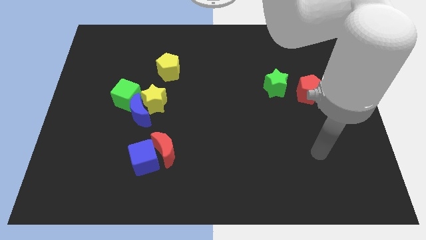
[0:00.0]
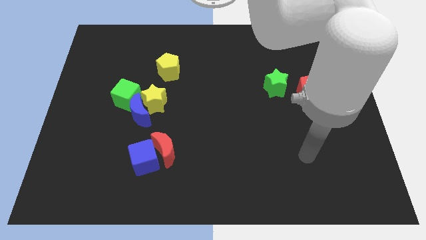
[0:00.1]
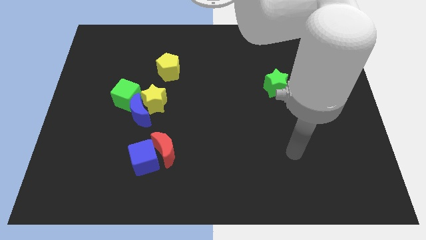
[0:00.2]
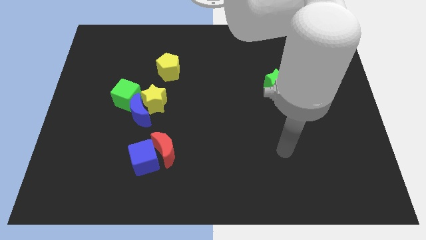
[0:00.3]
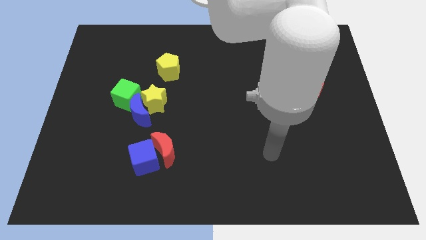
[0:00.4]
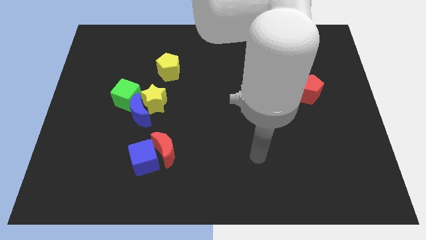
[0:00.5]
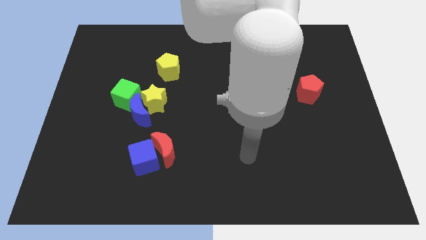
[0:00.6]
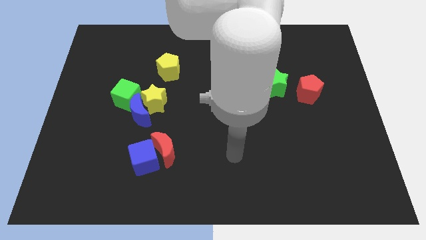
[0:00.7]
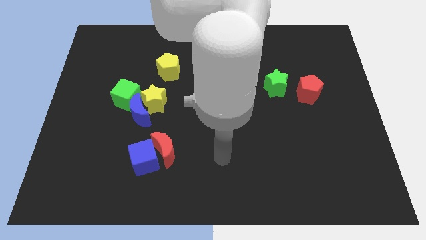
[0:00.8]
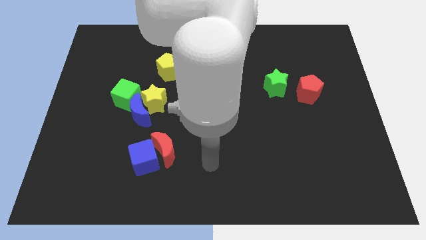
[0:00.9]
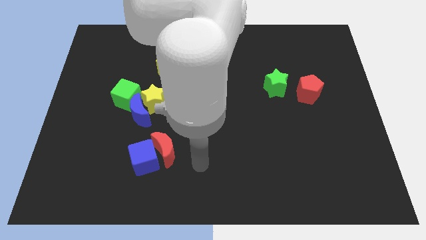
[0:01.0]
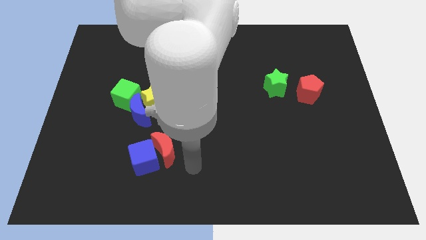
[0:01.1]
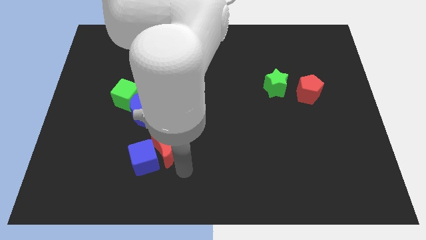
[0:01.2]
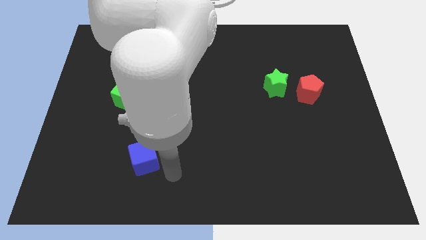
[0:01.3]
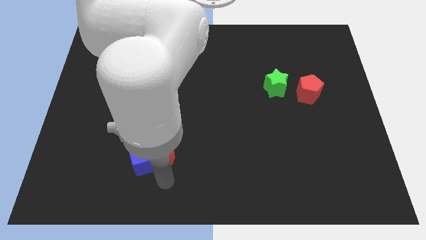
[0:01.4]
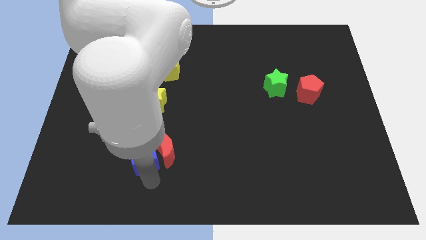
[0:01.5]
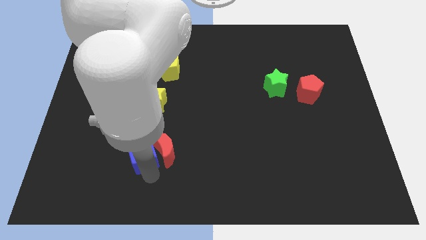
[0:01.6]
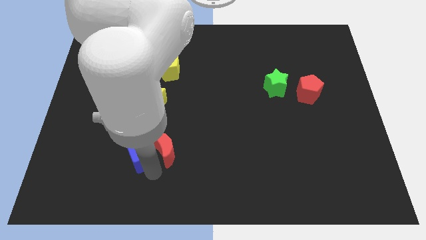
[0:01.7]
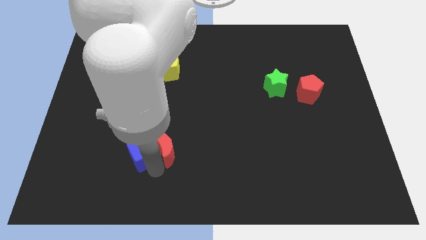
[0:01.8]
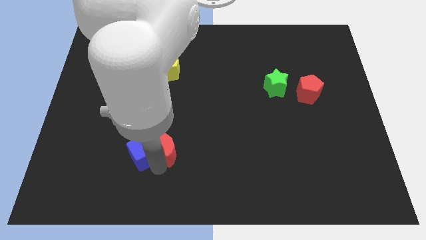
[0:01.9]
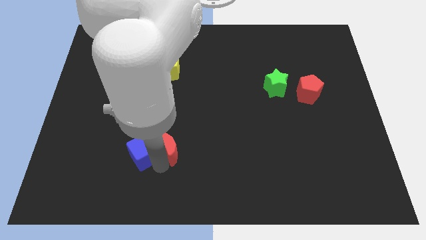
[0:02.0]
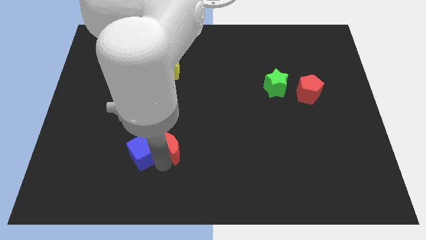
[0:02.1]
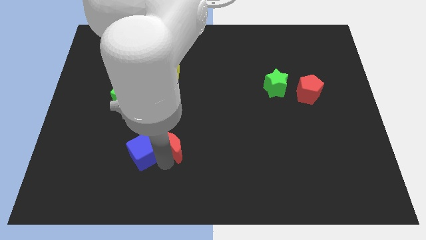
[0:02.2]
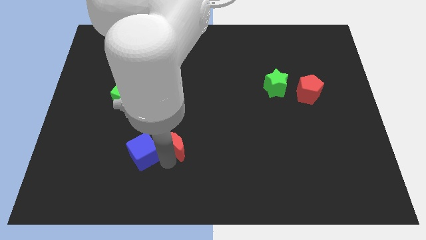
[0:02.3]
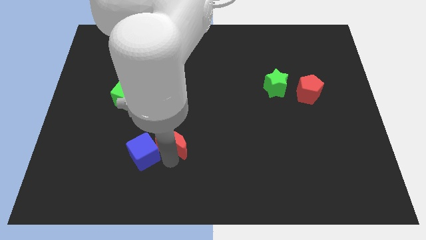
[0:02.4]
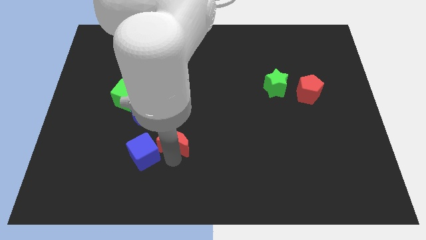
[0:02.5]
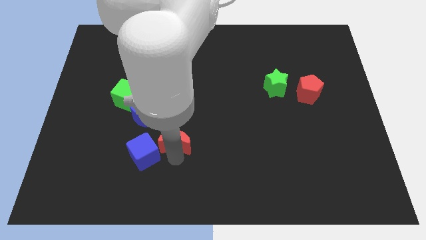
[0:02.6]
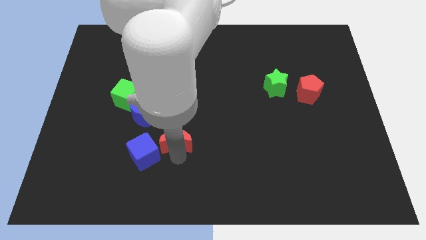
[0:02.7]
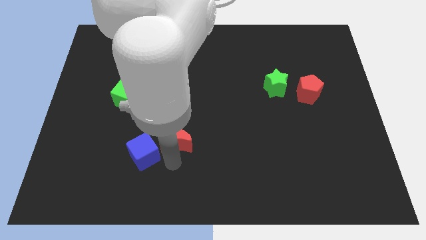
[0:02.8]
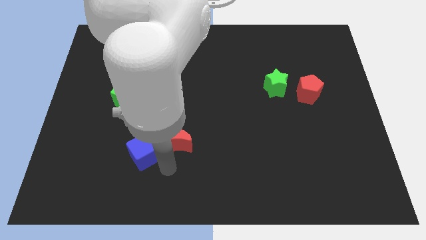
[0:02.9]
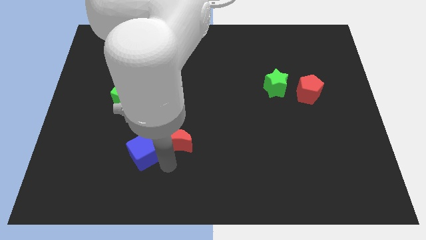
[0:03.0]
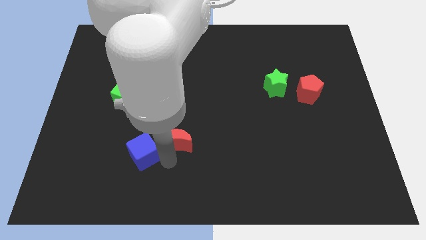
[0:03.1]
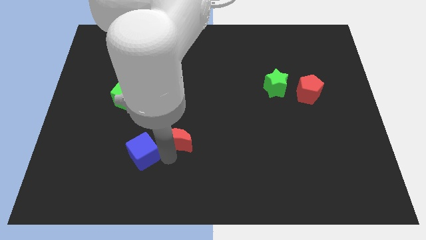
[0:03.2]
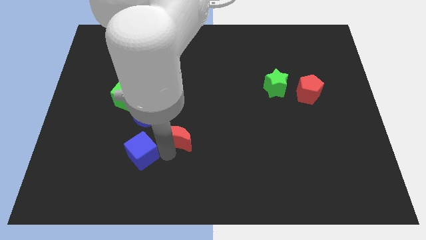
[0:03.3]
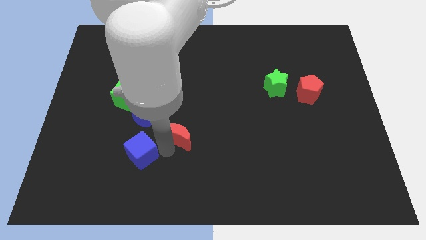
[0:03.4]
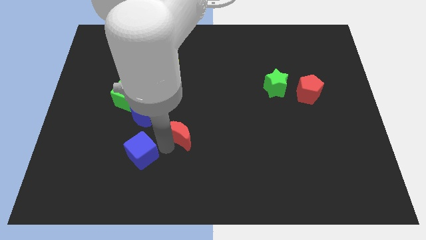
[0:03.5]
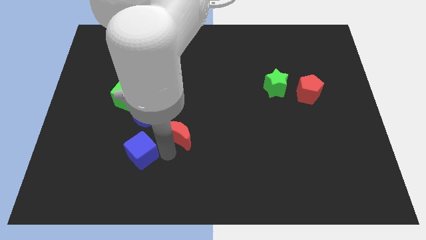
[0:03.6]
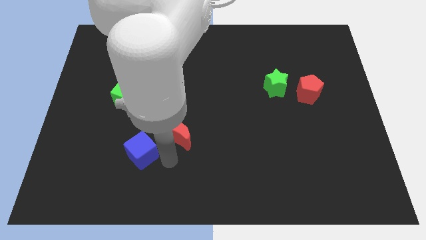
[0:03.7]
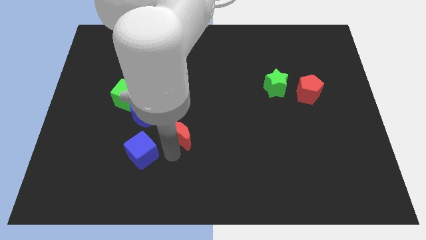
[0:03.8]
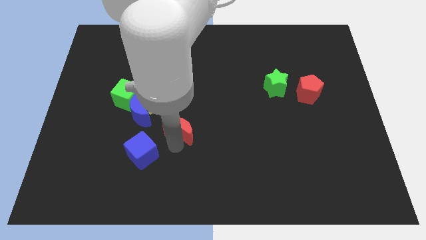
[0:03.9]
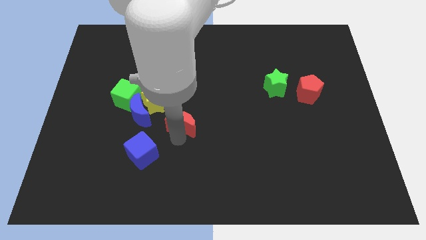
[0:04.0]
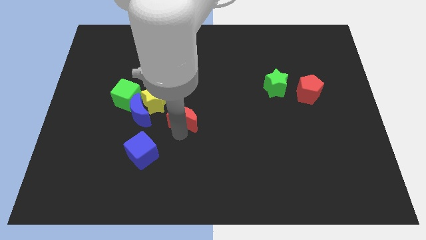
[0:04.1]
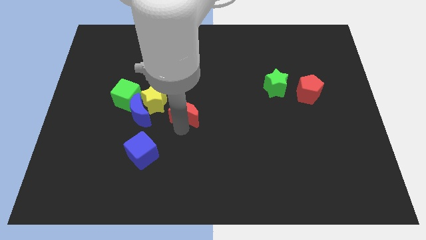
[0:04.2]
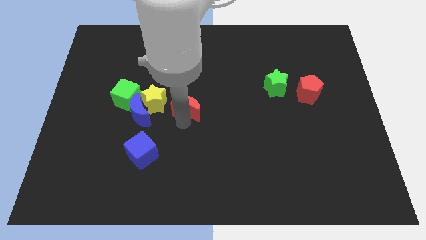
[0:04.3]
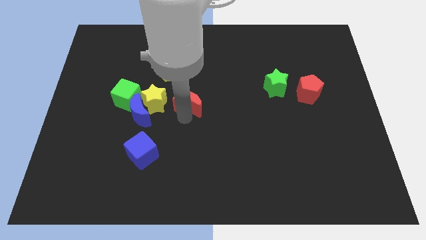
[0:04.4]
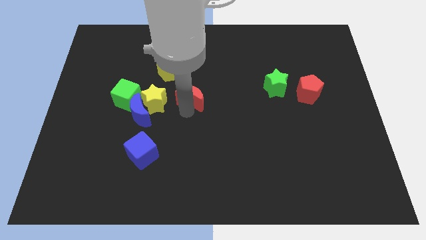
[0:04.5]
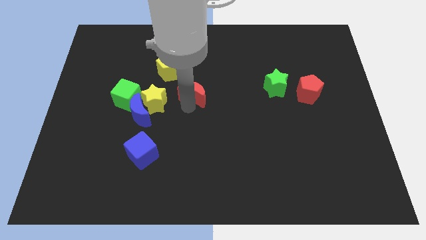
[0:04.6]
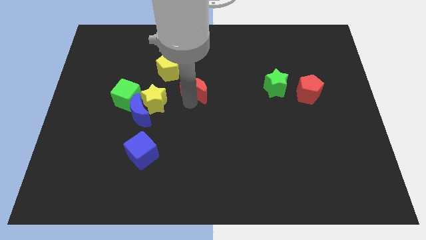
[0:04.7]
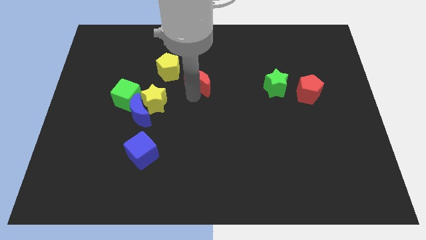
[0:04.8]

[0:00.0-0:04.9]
push the red moon just right of the yellow pentagon

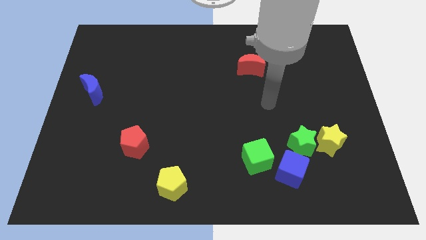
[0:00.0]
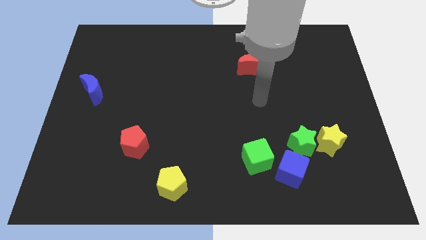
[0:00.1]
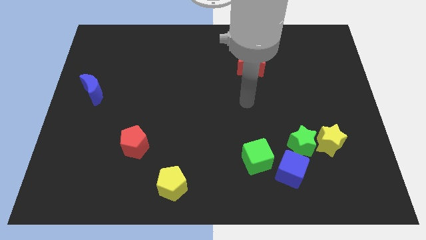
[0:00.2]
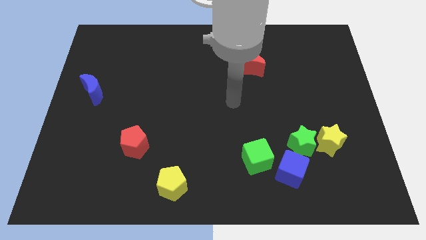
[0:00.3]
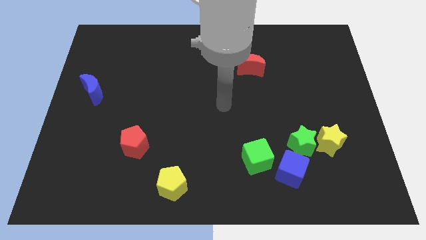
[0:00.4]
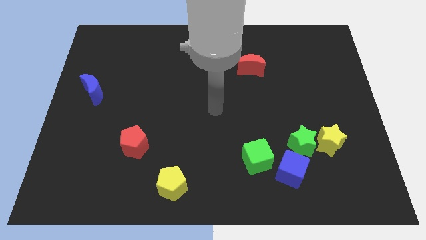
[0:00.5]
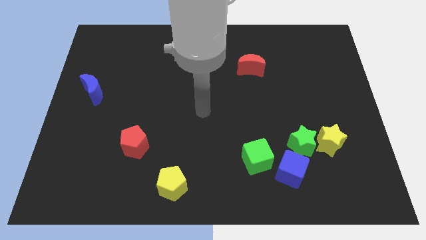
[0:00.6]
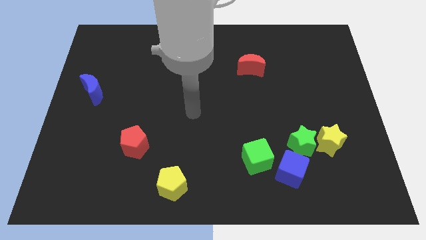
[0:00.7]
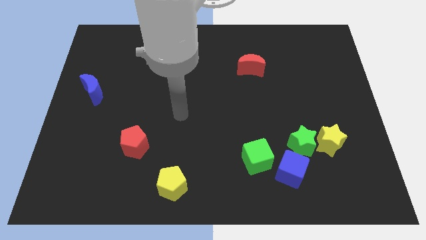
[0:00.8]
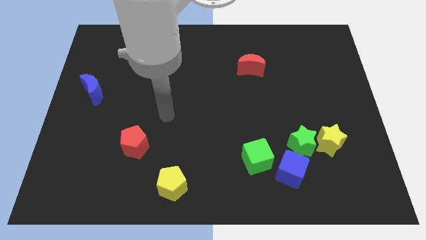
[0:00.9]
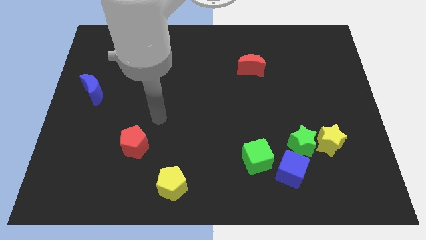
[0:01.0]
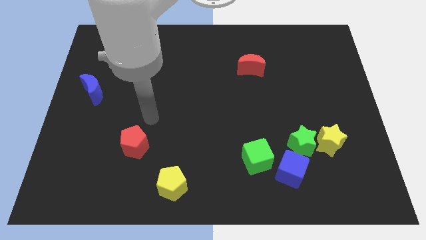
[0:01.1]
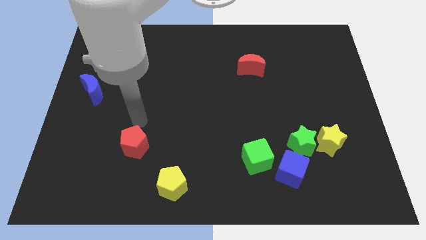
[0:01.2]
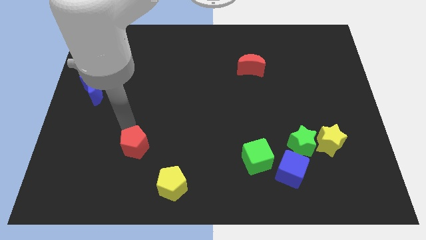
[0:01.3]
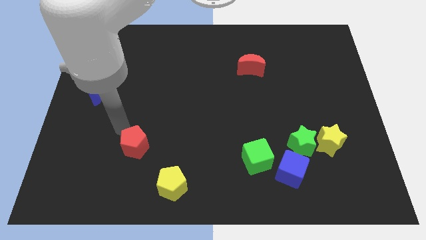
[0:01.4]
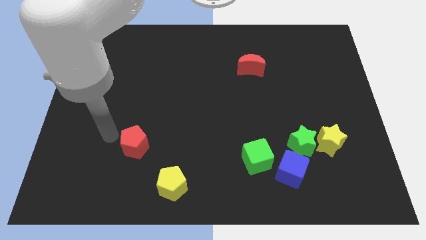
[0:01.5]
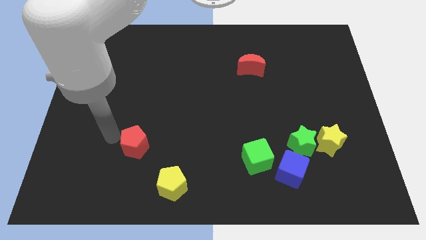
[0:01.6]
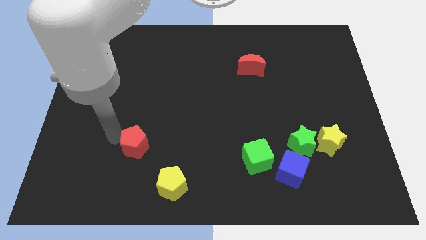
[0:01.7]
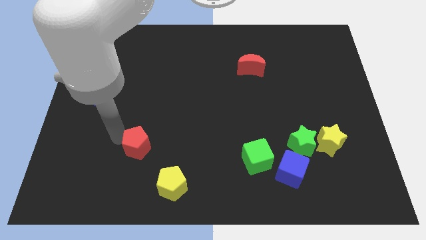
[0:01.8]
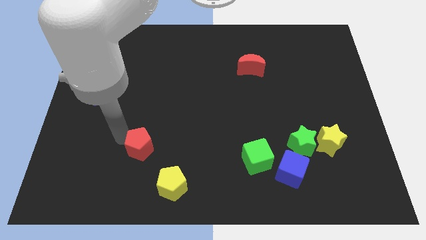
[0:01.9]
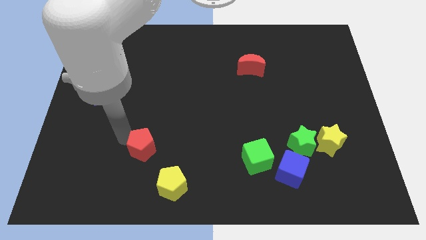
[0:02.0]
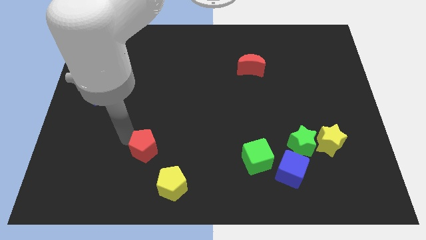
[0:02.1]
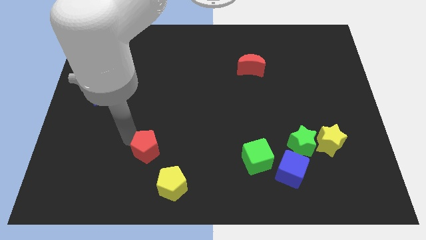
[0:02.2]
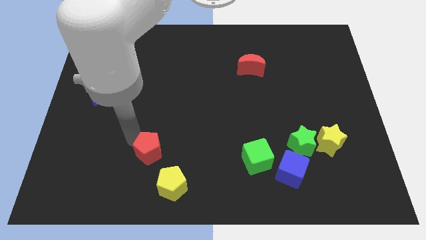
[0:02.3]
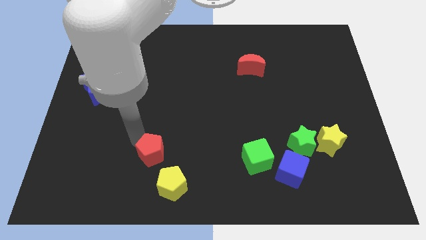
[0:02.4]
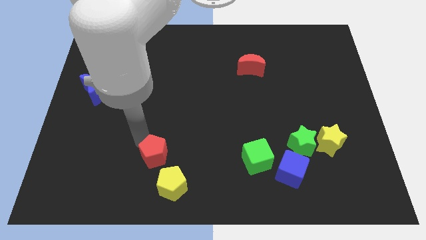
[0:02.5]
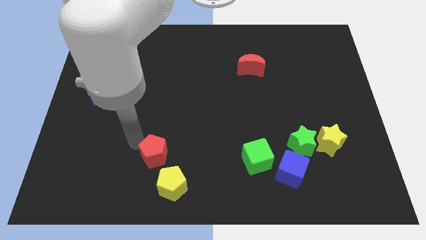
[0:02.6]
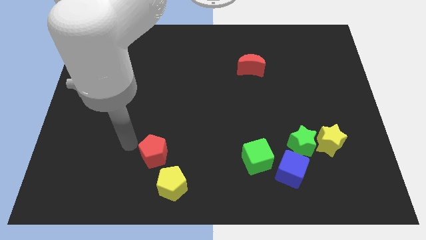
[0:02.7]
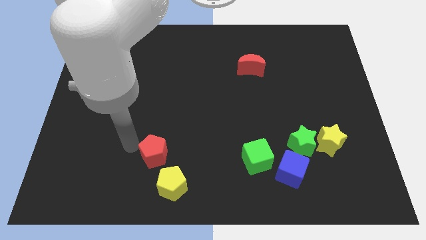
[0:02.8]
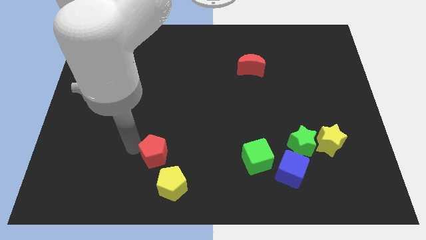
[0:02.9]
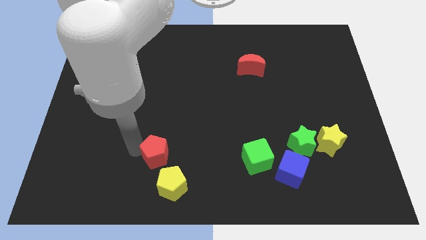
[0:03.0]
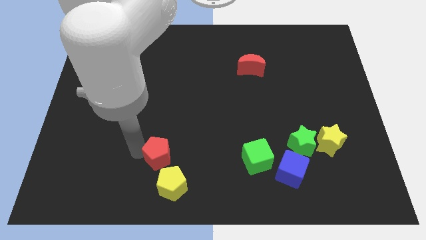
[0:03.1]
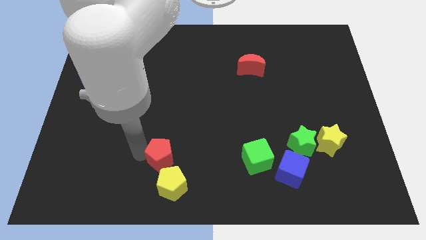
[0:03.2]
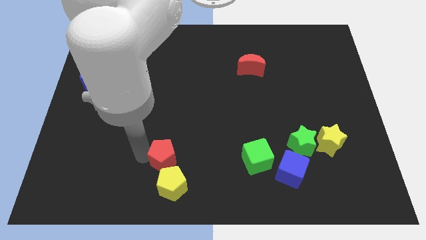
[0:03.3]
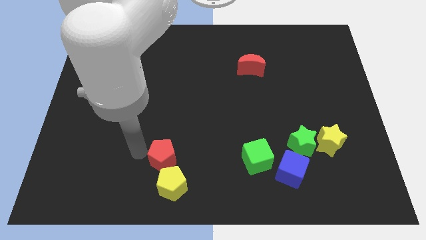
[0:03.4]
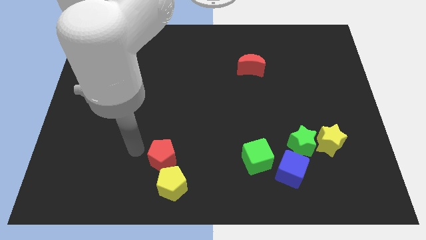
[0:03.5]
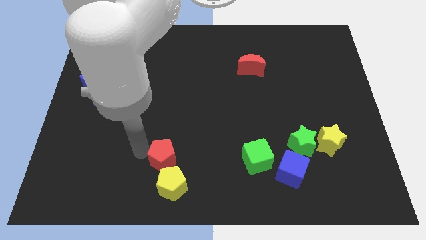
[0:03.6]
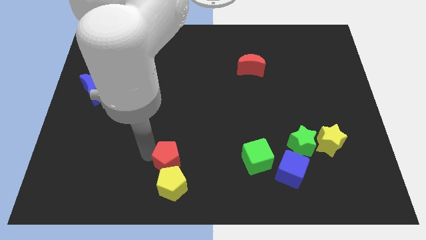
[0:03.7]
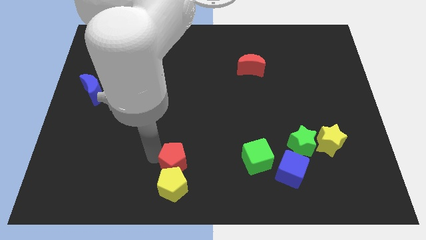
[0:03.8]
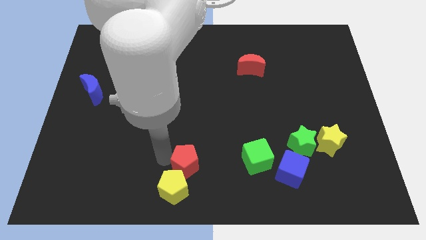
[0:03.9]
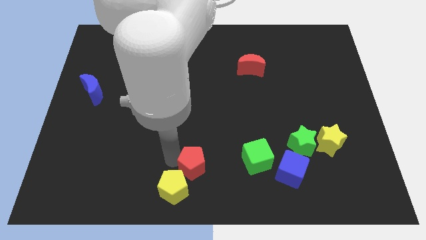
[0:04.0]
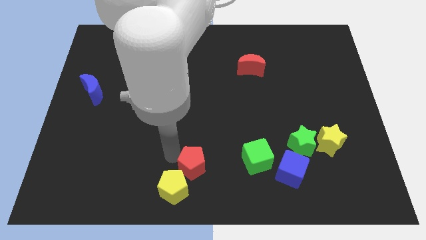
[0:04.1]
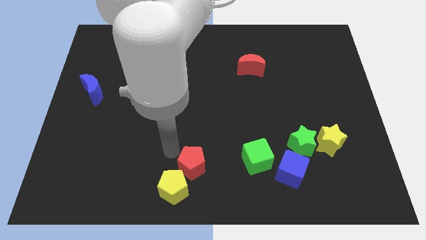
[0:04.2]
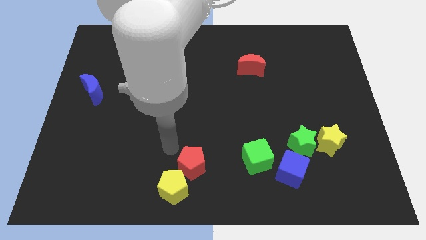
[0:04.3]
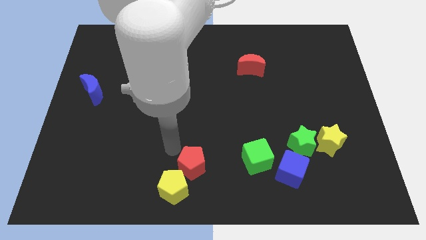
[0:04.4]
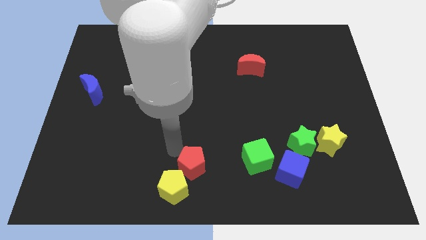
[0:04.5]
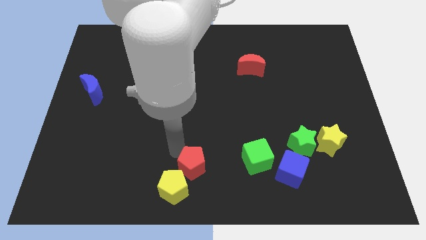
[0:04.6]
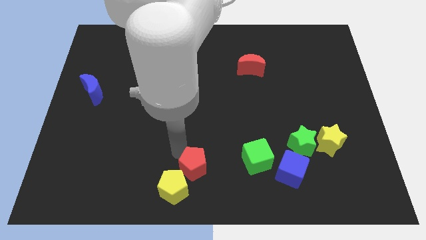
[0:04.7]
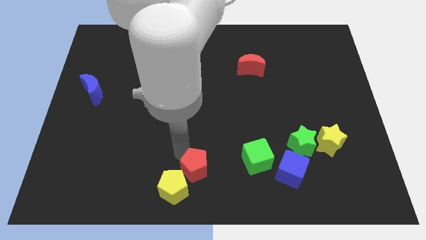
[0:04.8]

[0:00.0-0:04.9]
push the red pentagon to the right side of the yellow pentagon
